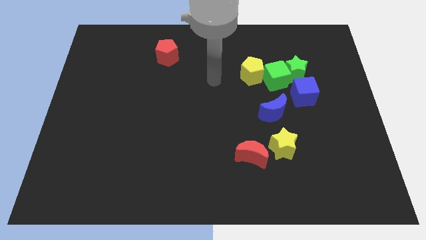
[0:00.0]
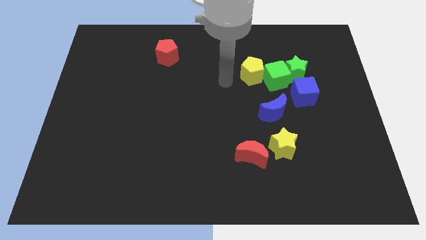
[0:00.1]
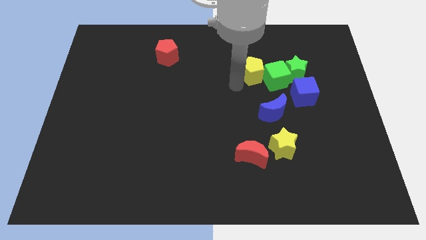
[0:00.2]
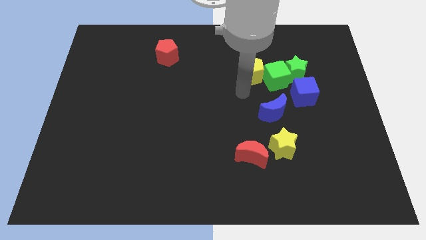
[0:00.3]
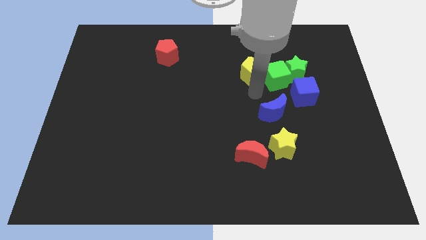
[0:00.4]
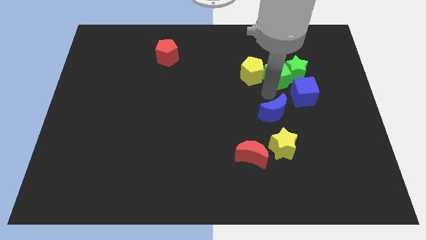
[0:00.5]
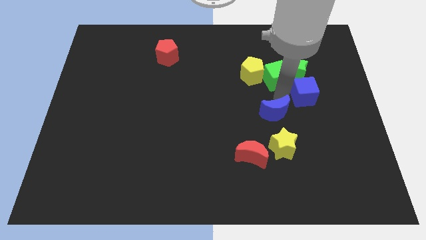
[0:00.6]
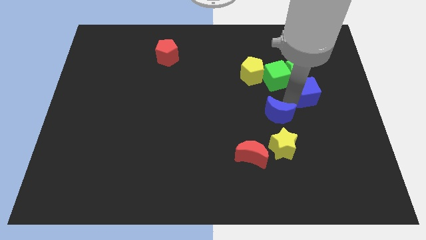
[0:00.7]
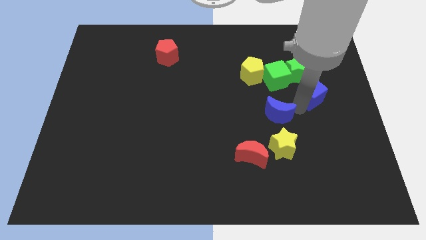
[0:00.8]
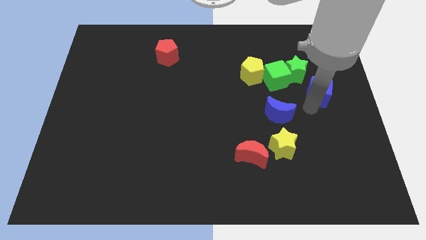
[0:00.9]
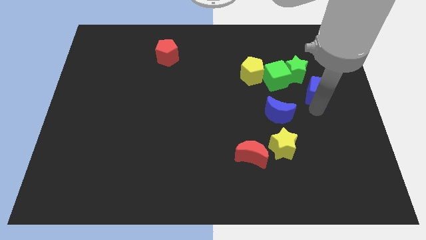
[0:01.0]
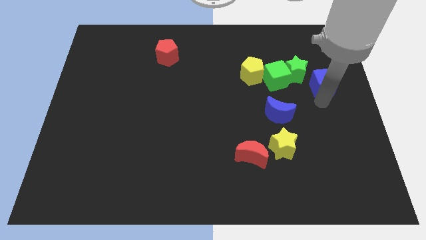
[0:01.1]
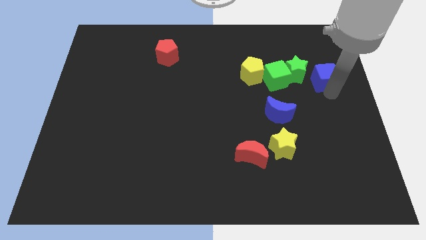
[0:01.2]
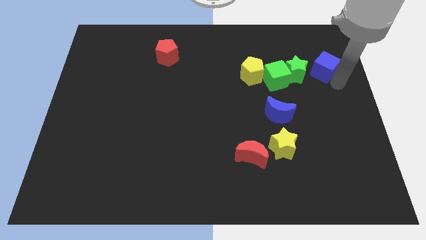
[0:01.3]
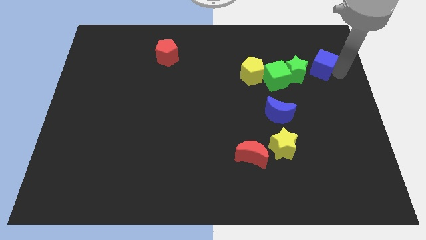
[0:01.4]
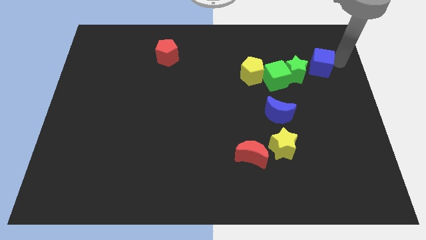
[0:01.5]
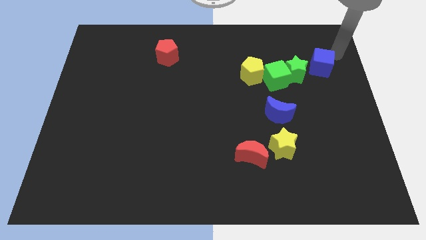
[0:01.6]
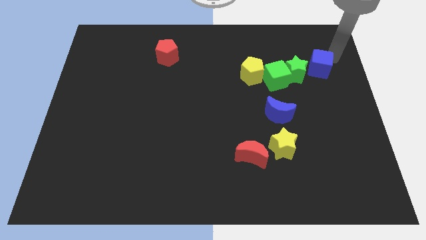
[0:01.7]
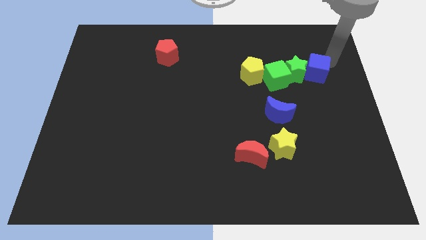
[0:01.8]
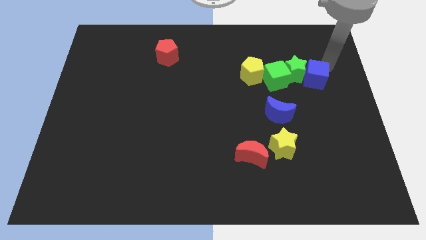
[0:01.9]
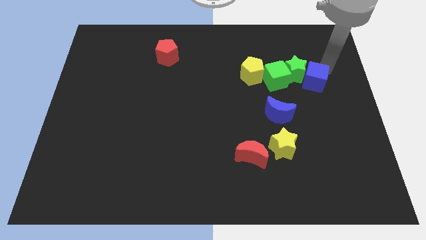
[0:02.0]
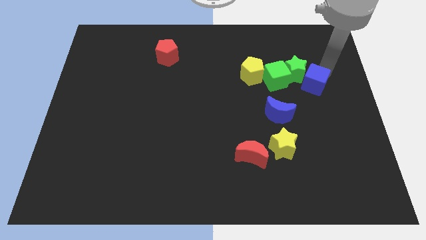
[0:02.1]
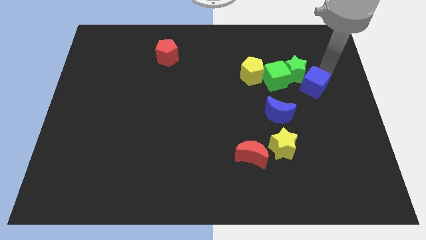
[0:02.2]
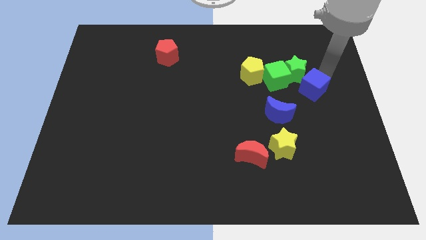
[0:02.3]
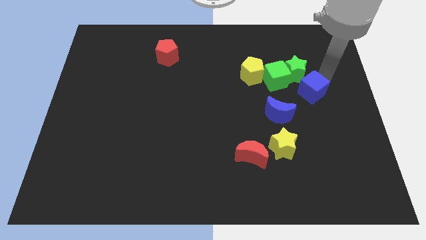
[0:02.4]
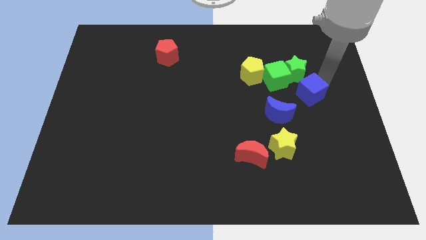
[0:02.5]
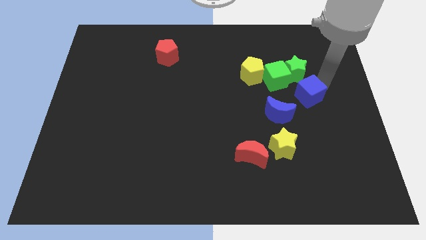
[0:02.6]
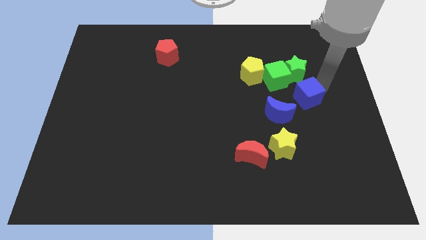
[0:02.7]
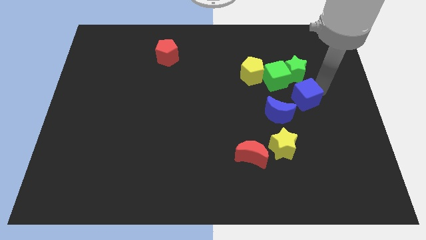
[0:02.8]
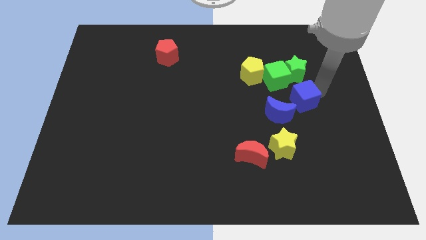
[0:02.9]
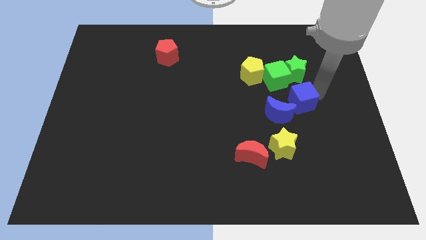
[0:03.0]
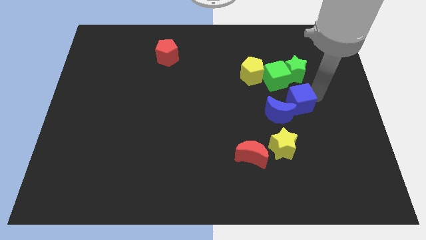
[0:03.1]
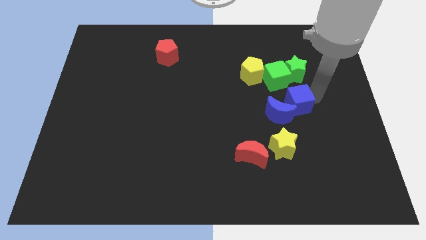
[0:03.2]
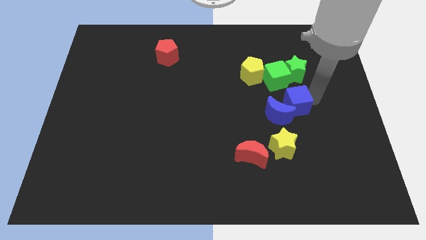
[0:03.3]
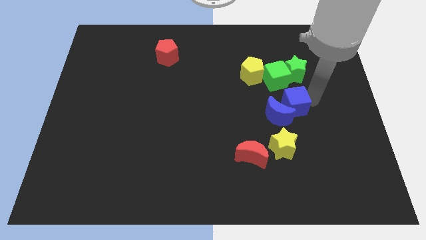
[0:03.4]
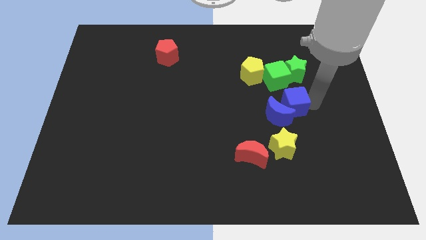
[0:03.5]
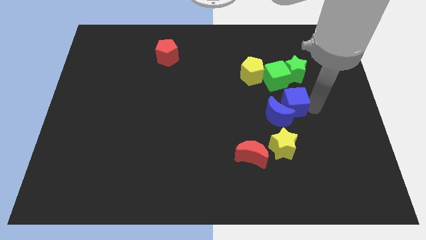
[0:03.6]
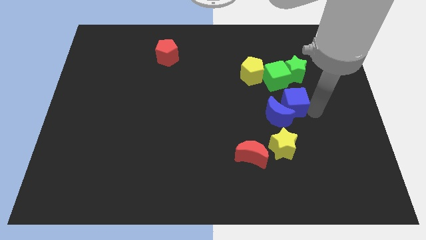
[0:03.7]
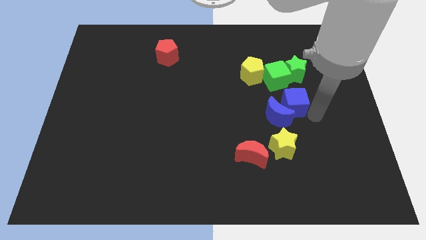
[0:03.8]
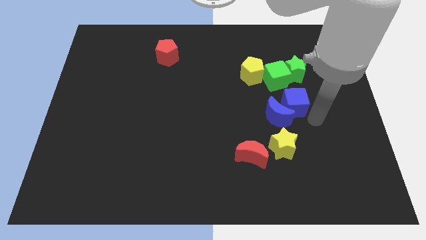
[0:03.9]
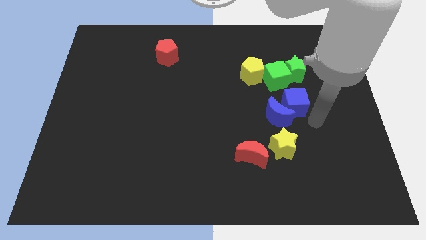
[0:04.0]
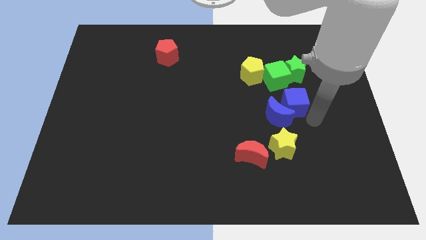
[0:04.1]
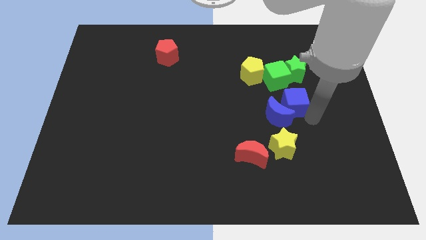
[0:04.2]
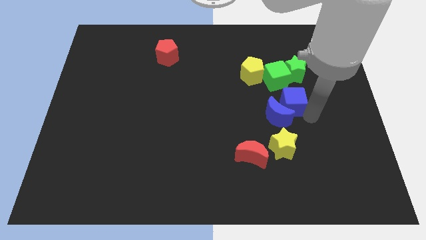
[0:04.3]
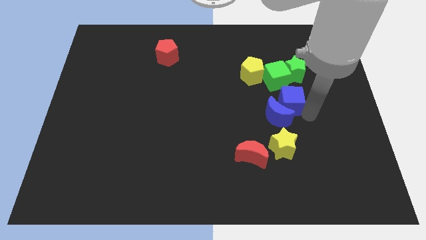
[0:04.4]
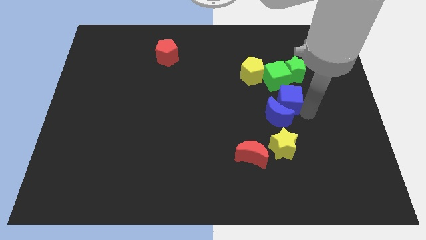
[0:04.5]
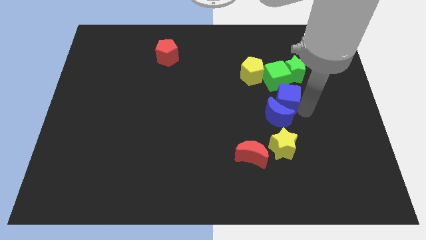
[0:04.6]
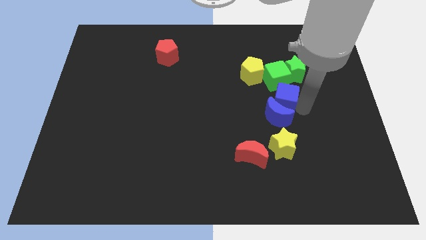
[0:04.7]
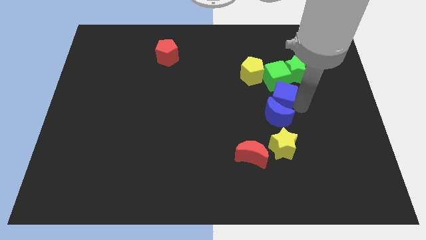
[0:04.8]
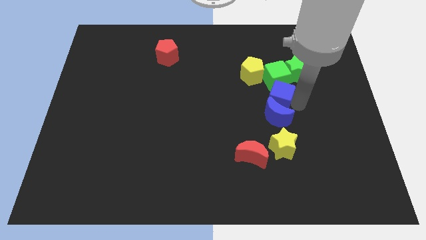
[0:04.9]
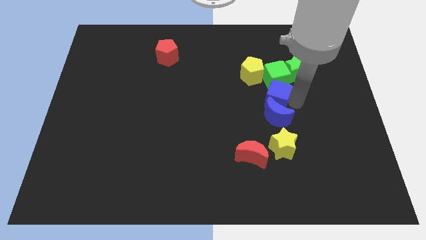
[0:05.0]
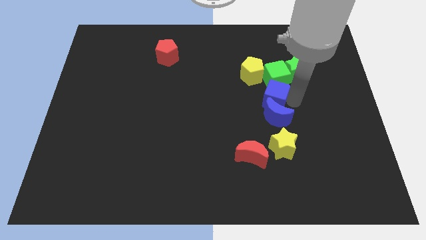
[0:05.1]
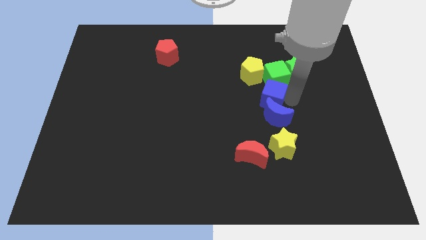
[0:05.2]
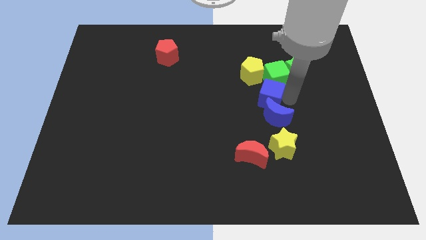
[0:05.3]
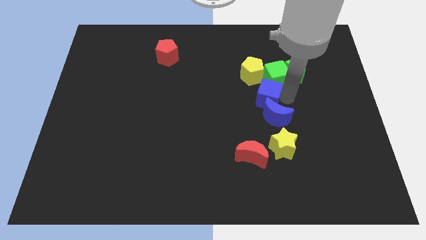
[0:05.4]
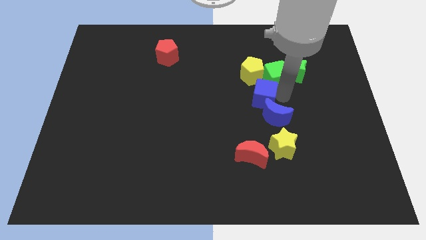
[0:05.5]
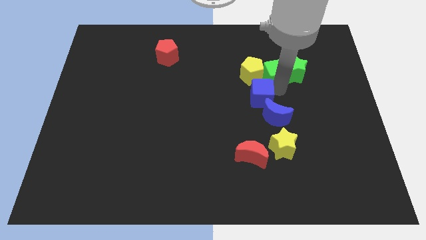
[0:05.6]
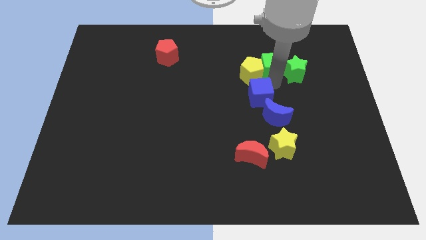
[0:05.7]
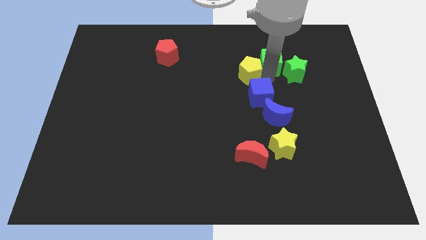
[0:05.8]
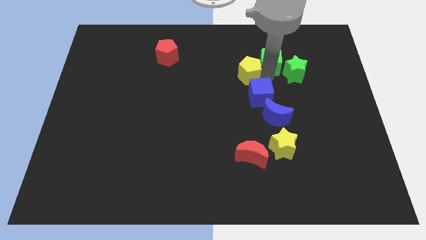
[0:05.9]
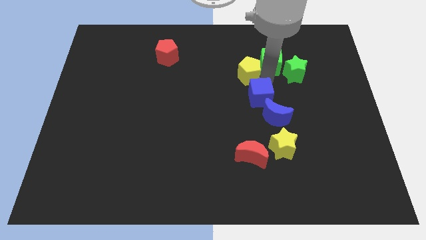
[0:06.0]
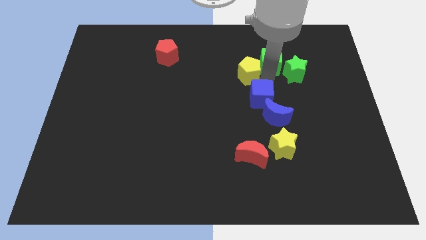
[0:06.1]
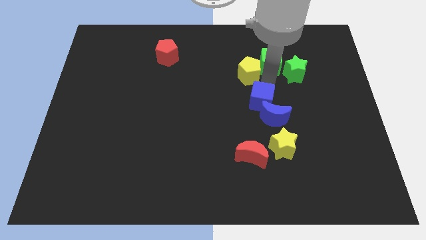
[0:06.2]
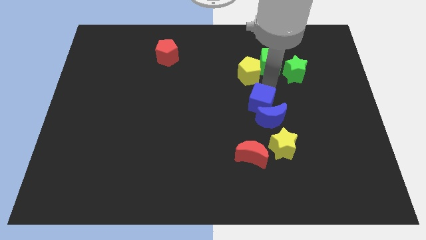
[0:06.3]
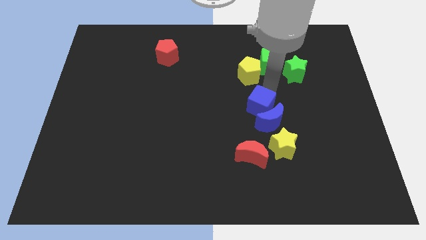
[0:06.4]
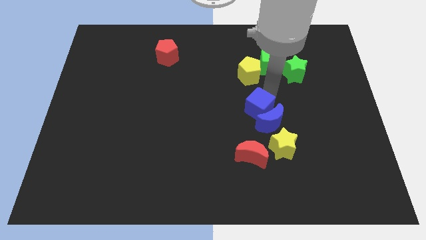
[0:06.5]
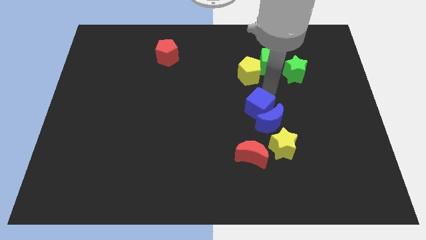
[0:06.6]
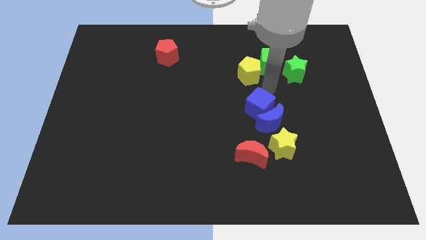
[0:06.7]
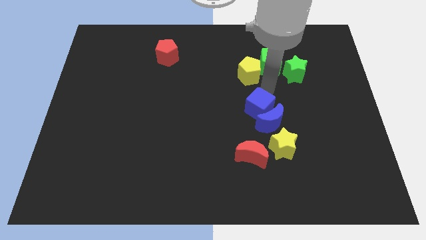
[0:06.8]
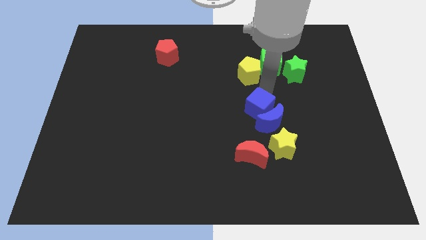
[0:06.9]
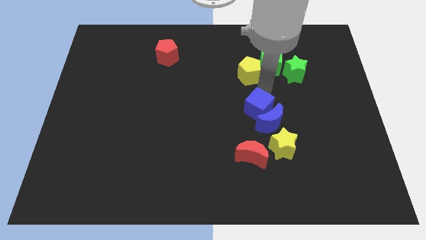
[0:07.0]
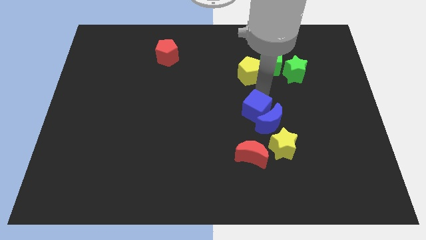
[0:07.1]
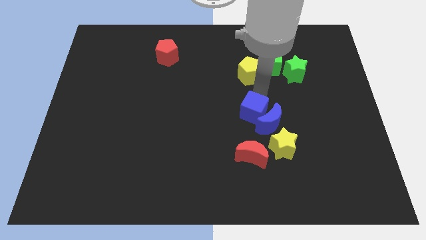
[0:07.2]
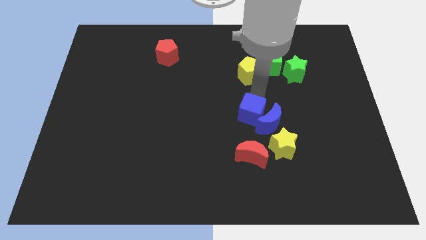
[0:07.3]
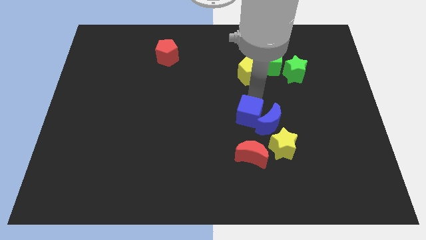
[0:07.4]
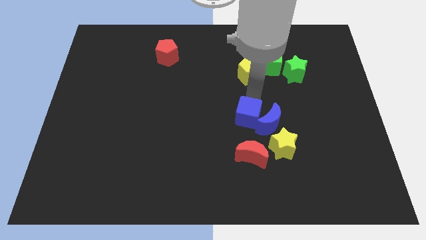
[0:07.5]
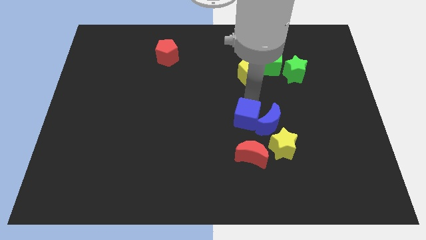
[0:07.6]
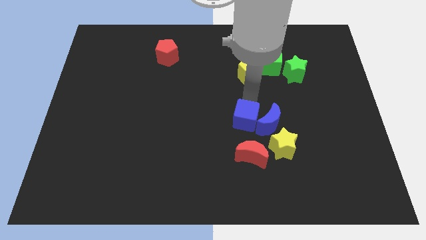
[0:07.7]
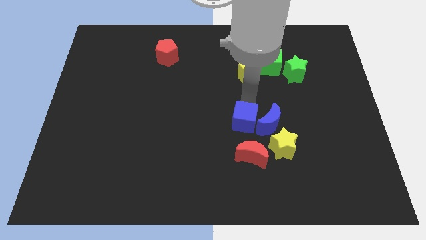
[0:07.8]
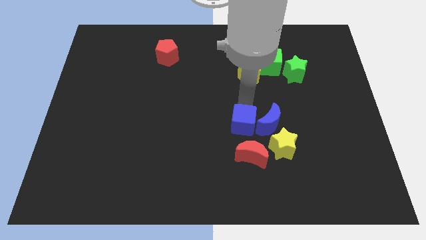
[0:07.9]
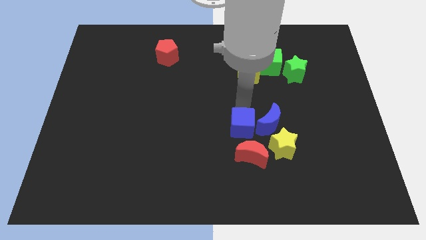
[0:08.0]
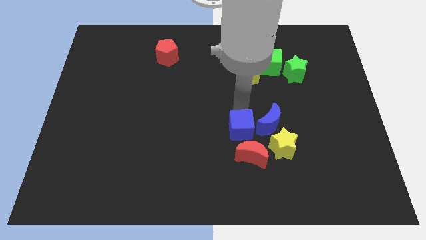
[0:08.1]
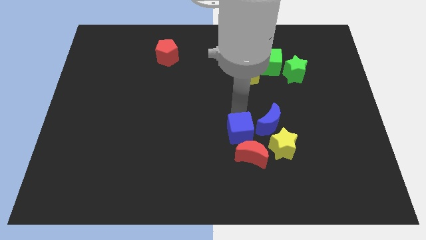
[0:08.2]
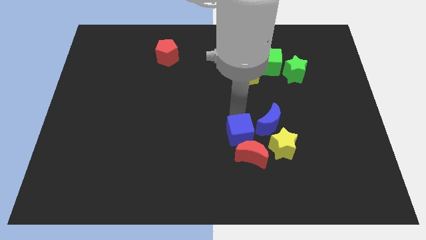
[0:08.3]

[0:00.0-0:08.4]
put the blue cube close to the red moon
